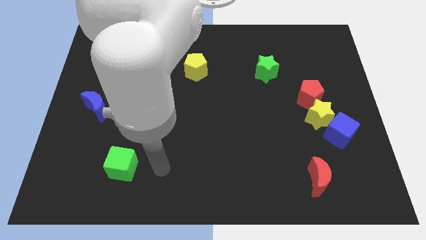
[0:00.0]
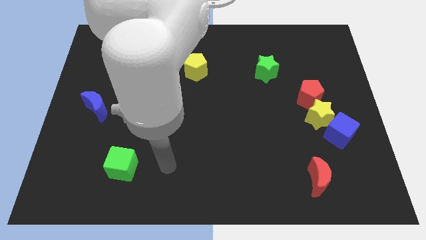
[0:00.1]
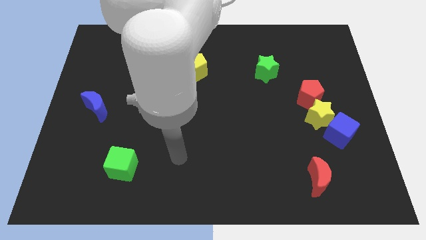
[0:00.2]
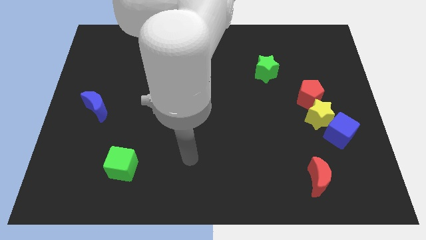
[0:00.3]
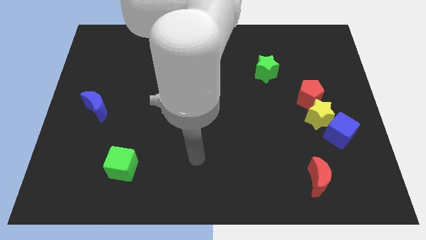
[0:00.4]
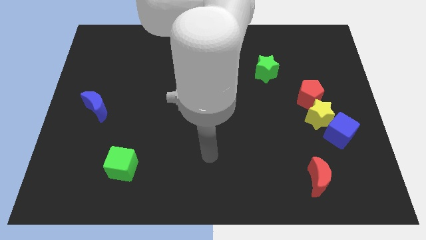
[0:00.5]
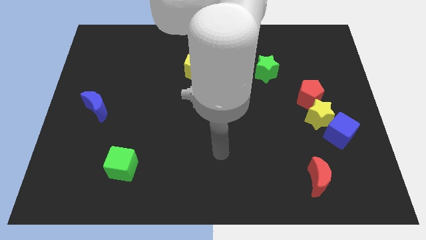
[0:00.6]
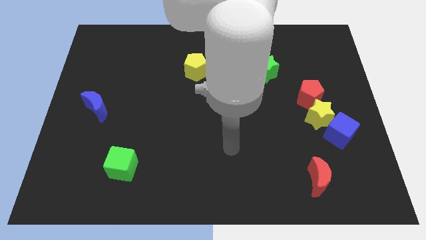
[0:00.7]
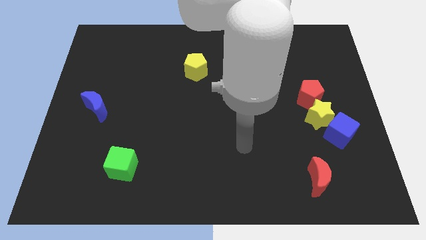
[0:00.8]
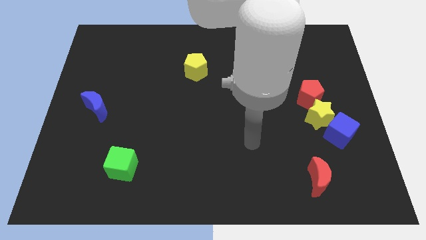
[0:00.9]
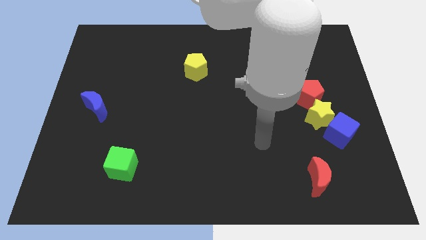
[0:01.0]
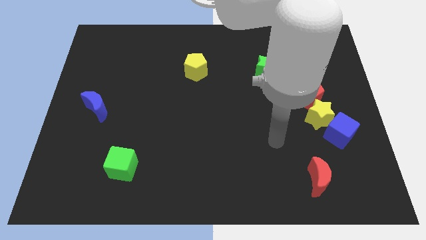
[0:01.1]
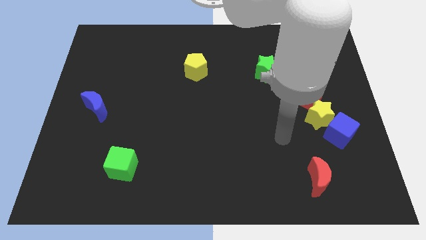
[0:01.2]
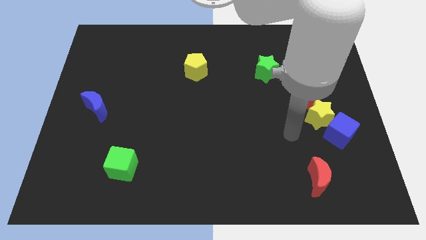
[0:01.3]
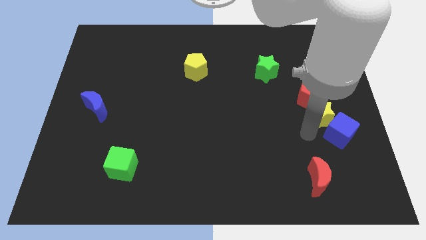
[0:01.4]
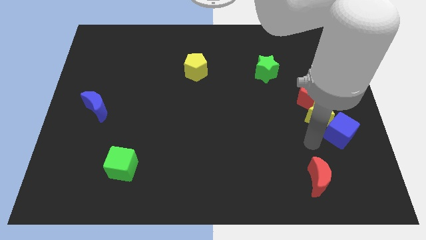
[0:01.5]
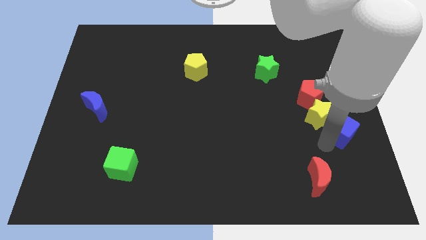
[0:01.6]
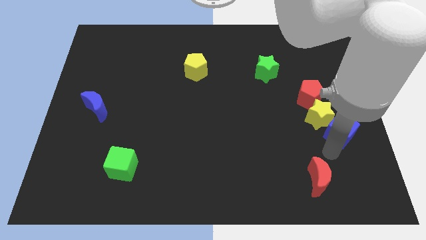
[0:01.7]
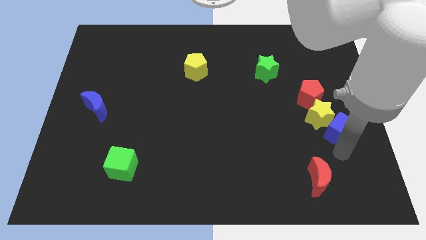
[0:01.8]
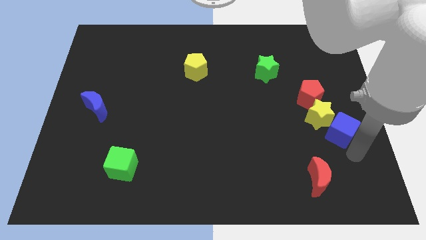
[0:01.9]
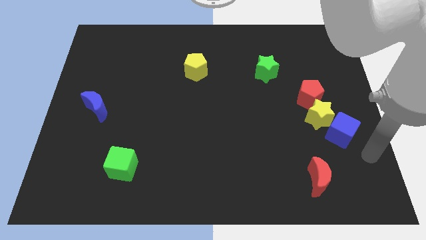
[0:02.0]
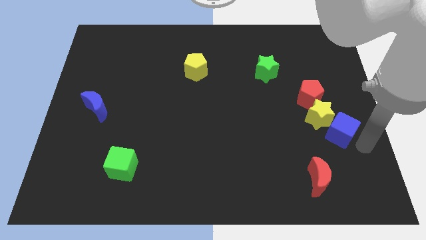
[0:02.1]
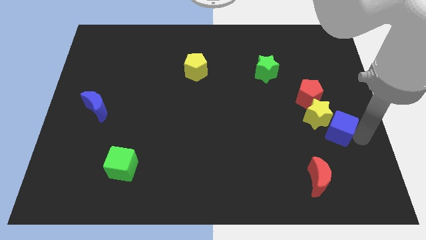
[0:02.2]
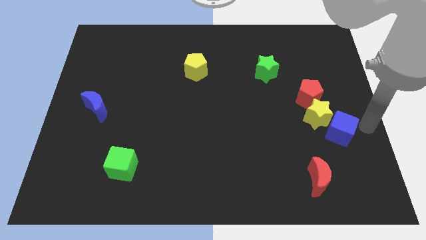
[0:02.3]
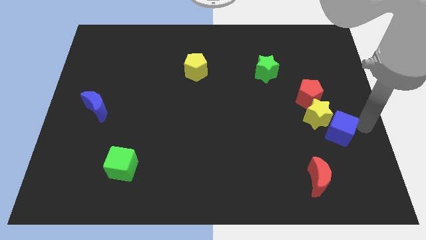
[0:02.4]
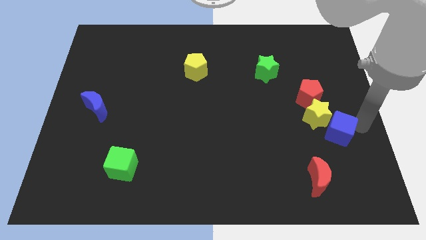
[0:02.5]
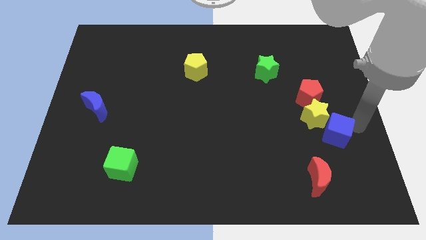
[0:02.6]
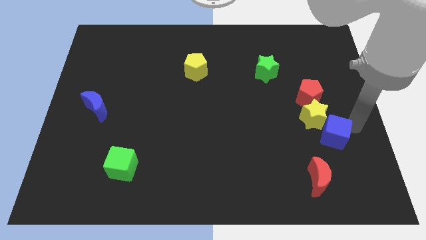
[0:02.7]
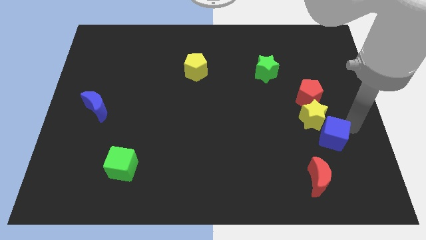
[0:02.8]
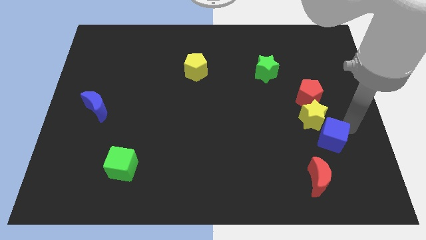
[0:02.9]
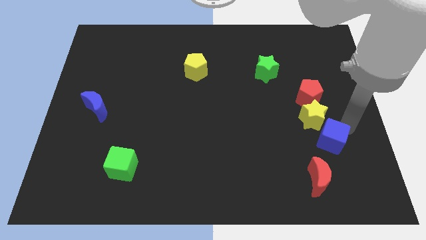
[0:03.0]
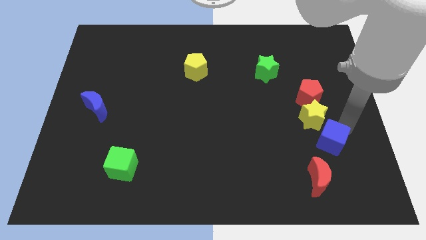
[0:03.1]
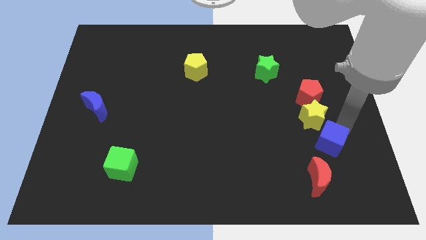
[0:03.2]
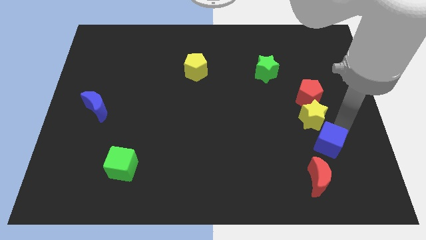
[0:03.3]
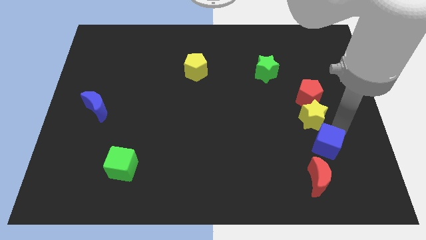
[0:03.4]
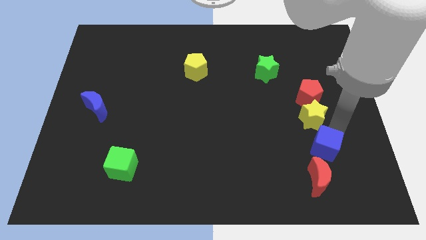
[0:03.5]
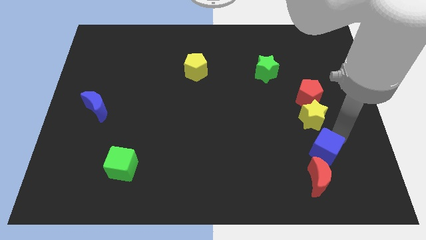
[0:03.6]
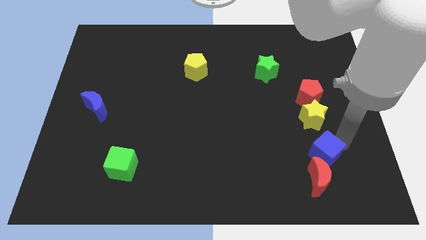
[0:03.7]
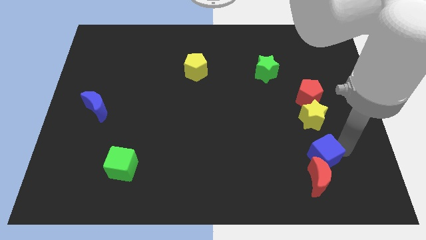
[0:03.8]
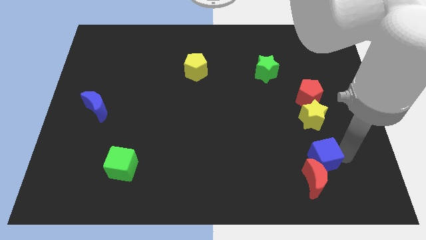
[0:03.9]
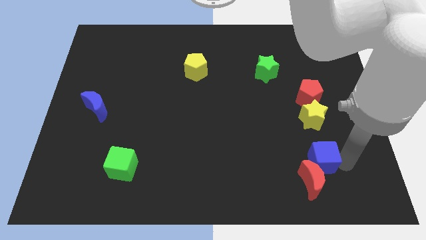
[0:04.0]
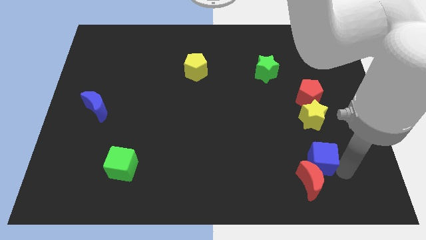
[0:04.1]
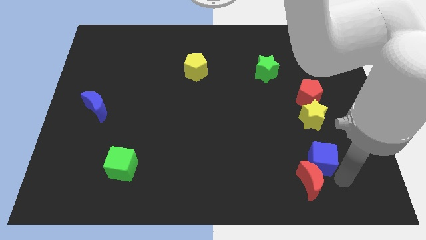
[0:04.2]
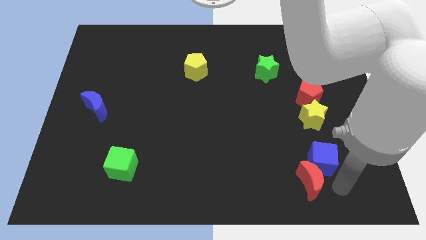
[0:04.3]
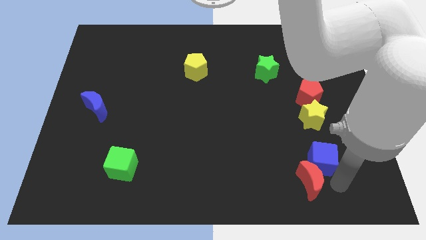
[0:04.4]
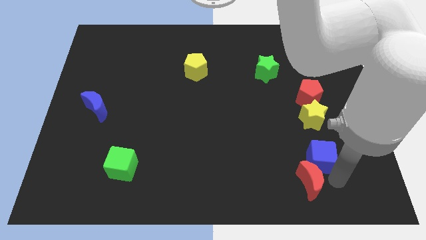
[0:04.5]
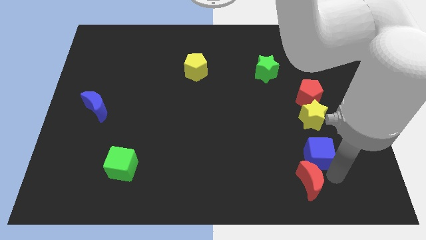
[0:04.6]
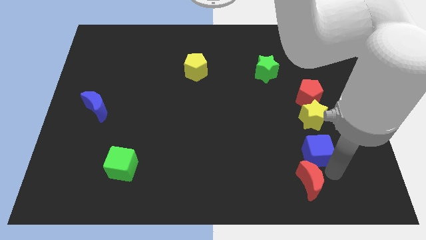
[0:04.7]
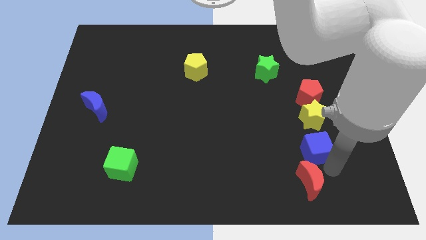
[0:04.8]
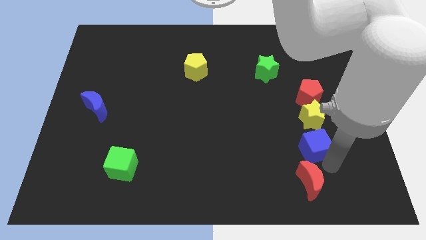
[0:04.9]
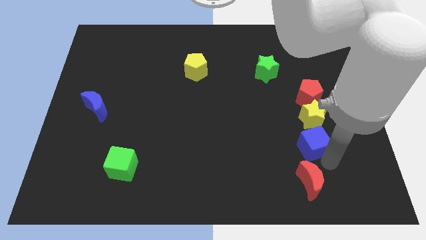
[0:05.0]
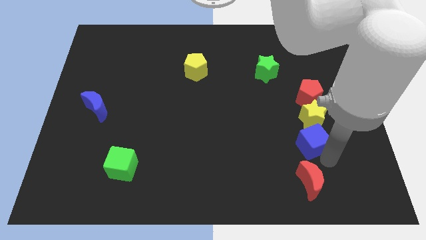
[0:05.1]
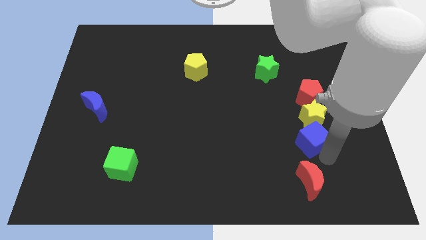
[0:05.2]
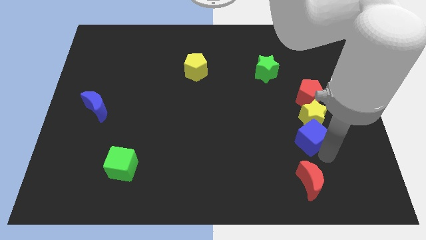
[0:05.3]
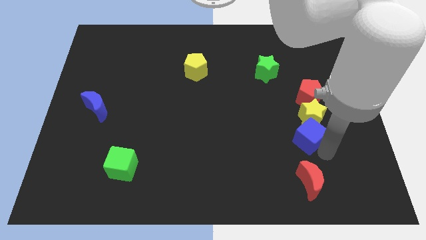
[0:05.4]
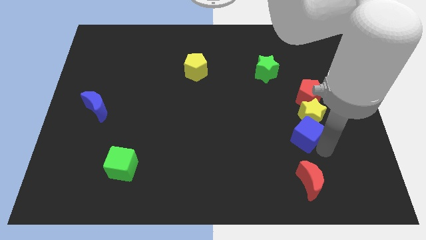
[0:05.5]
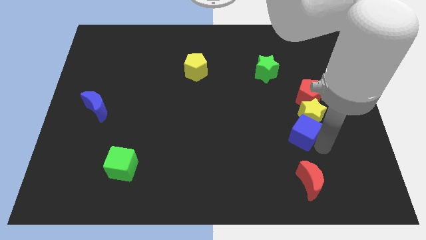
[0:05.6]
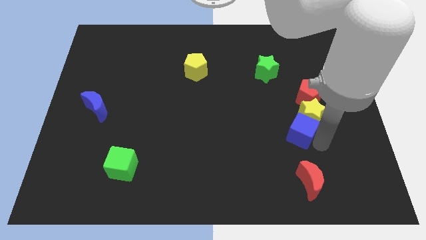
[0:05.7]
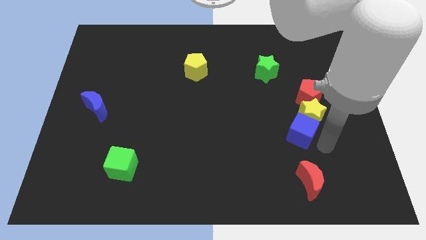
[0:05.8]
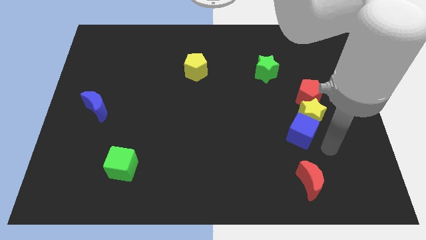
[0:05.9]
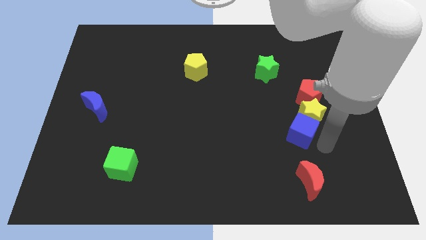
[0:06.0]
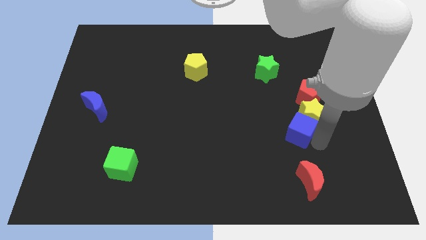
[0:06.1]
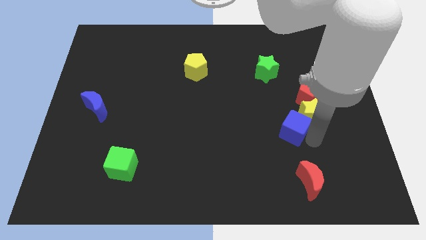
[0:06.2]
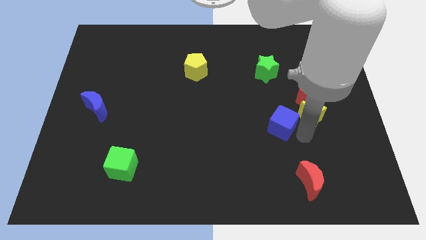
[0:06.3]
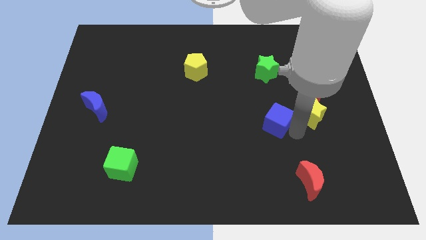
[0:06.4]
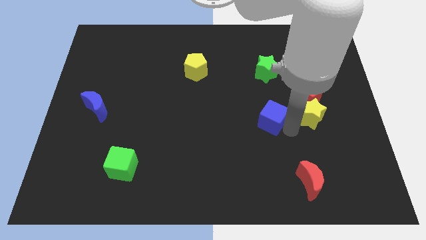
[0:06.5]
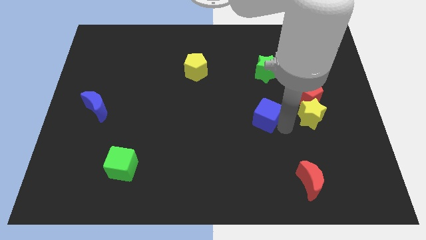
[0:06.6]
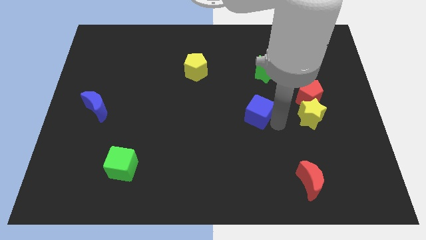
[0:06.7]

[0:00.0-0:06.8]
put the blue cube to the middle

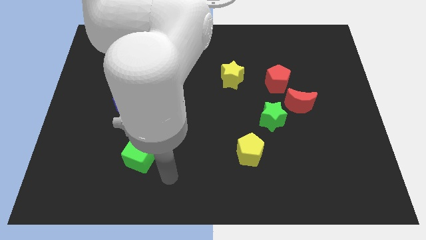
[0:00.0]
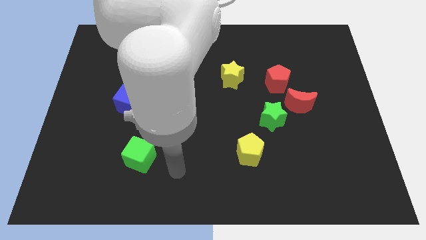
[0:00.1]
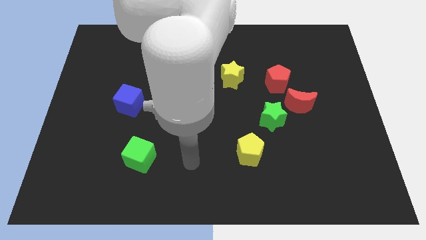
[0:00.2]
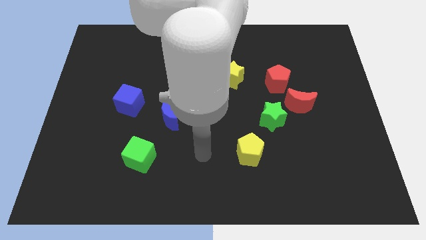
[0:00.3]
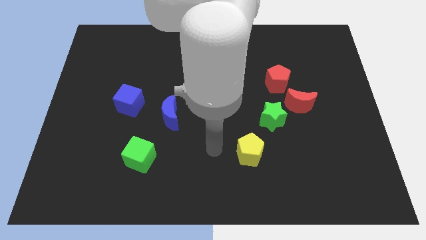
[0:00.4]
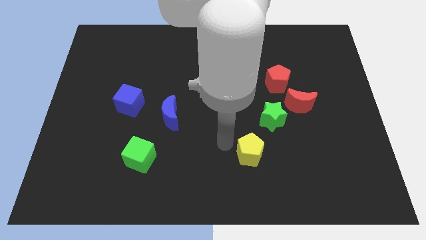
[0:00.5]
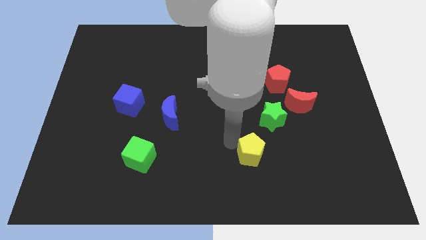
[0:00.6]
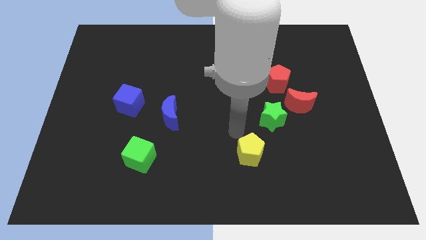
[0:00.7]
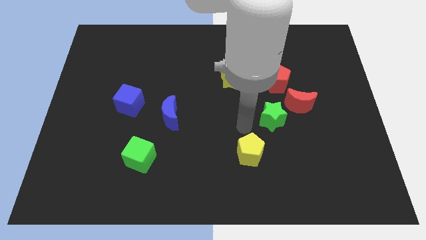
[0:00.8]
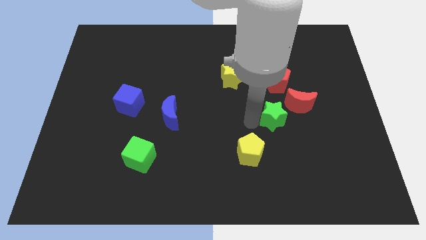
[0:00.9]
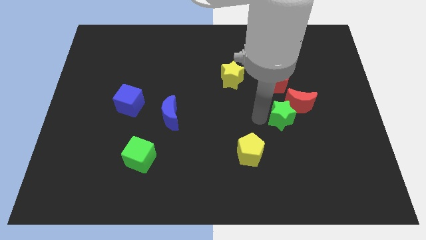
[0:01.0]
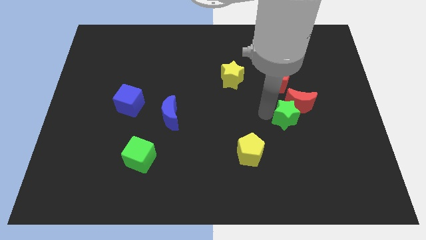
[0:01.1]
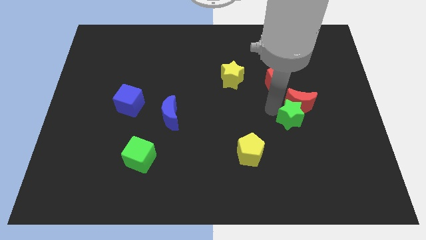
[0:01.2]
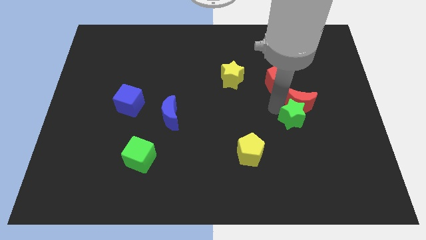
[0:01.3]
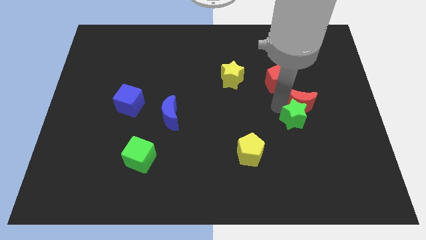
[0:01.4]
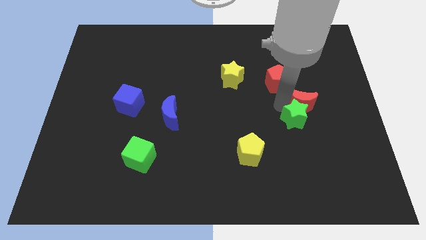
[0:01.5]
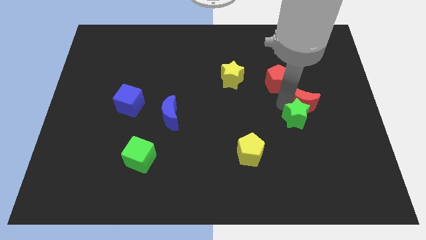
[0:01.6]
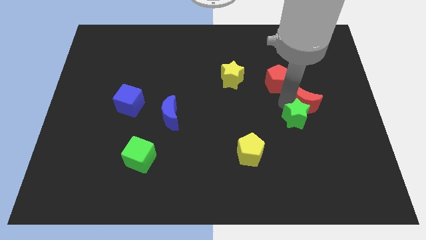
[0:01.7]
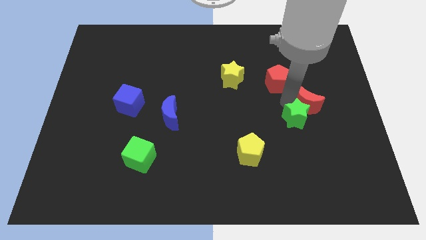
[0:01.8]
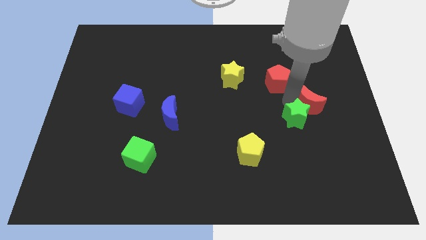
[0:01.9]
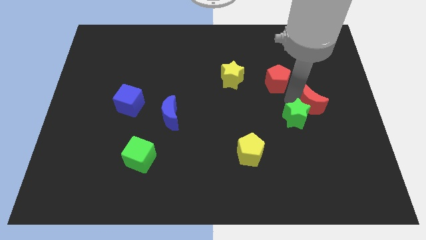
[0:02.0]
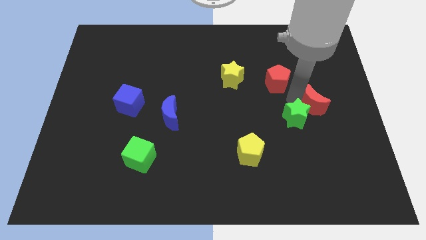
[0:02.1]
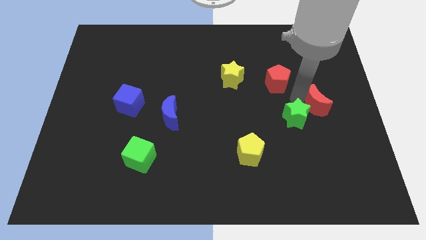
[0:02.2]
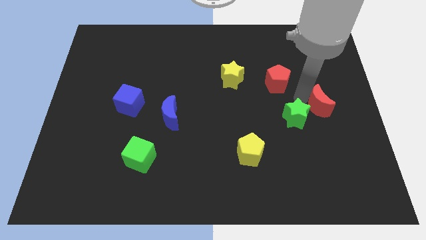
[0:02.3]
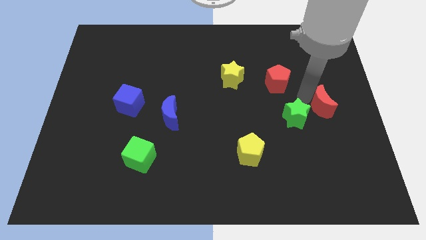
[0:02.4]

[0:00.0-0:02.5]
move the red moon to the right side of the board
